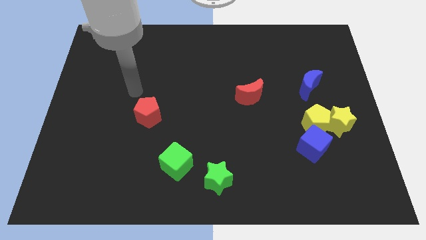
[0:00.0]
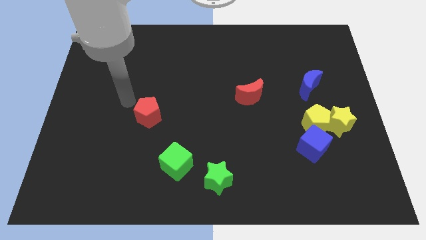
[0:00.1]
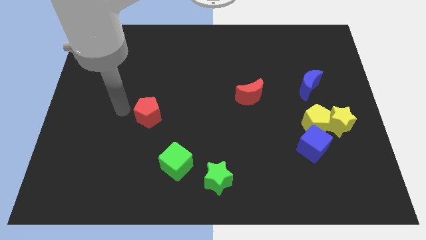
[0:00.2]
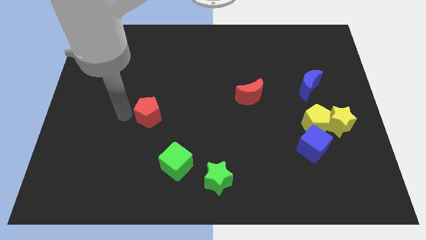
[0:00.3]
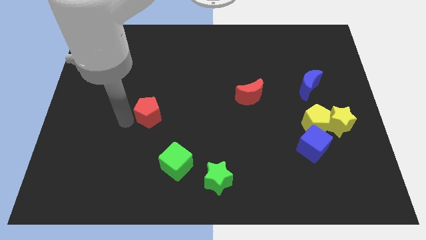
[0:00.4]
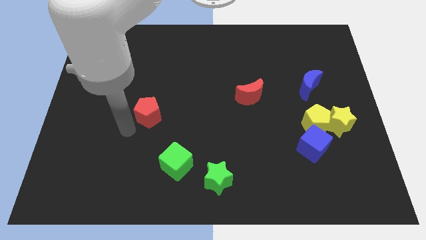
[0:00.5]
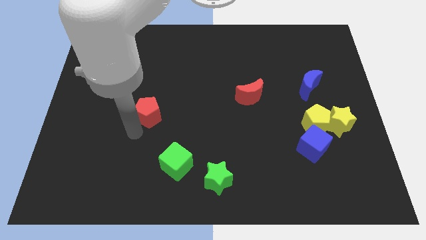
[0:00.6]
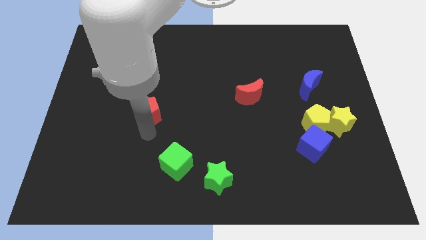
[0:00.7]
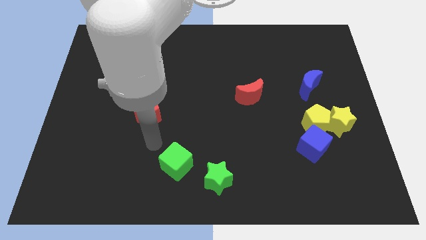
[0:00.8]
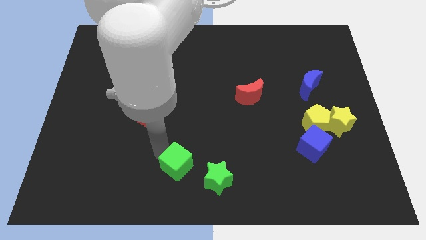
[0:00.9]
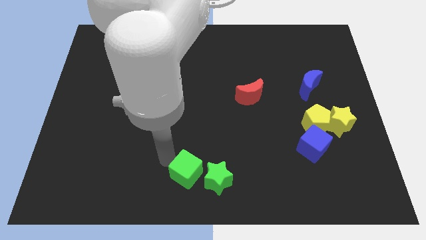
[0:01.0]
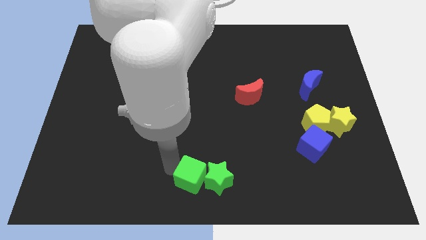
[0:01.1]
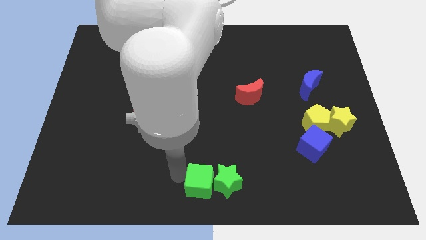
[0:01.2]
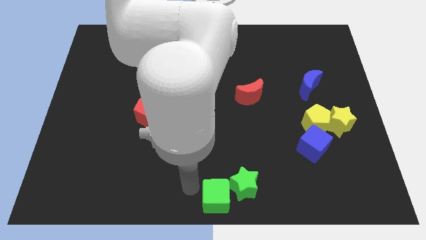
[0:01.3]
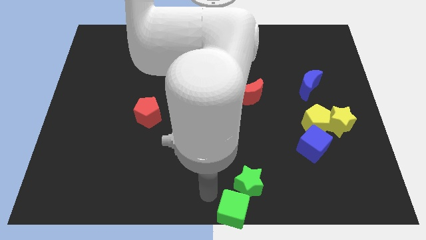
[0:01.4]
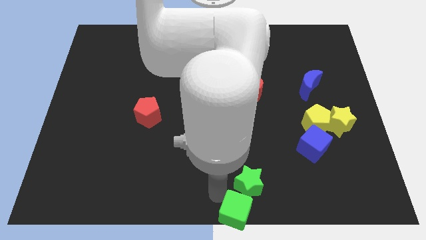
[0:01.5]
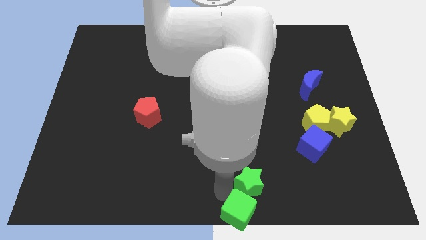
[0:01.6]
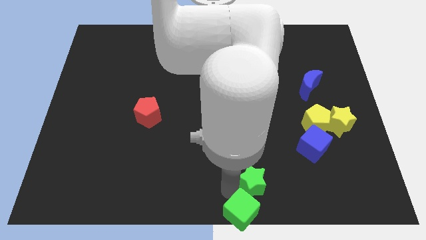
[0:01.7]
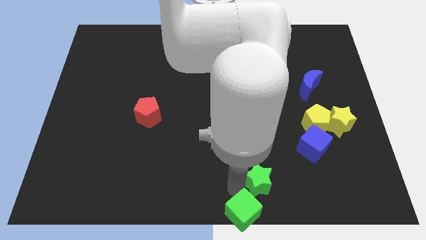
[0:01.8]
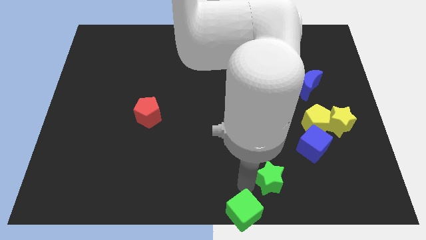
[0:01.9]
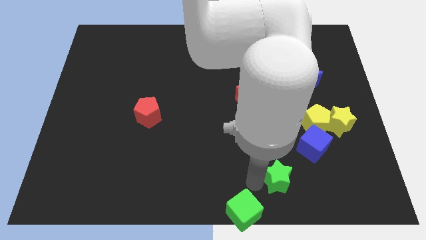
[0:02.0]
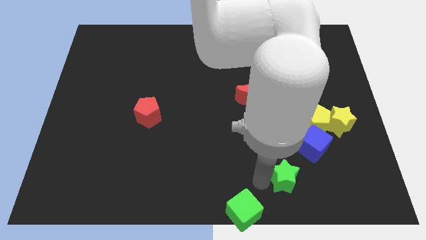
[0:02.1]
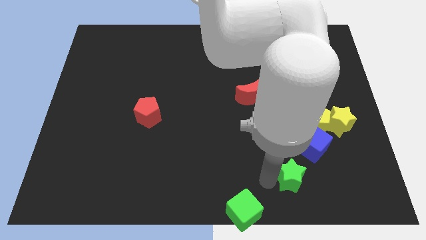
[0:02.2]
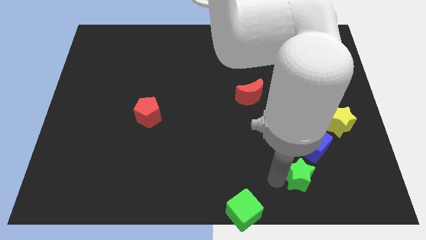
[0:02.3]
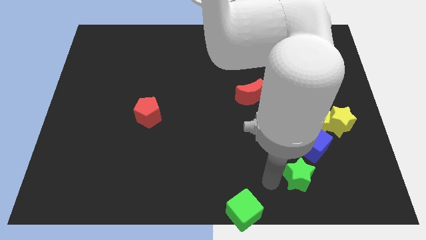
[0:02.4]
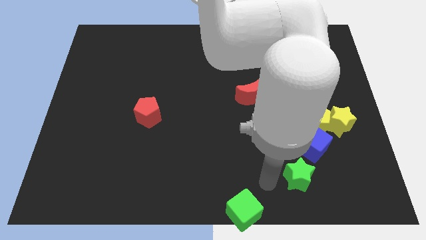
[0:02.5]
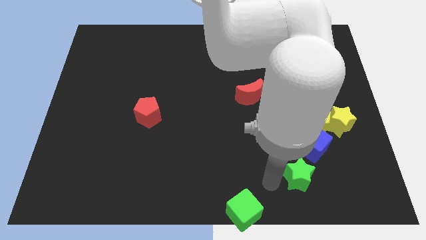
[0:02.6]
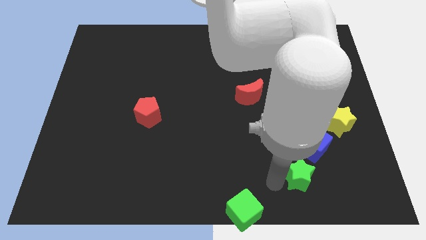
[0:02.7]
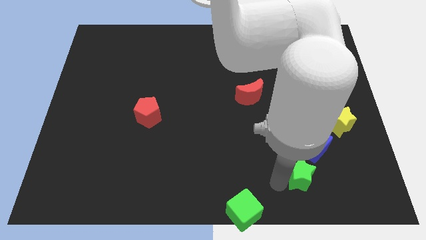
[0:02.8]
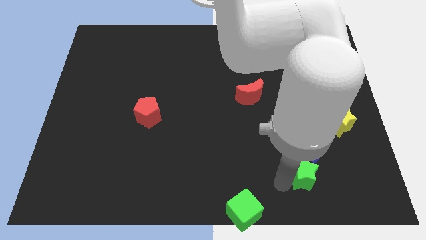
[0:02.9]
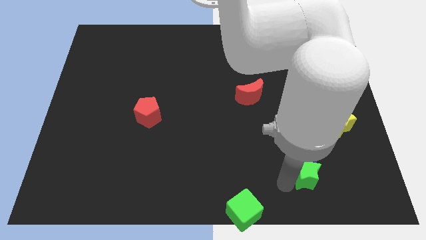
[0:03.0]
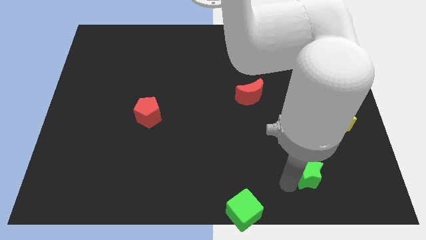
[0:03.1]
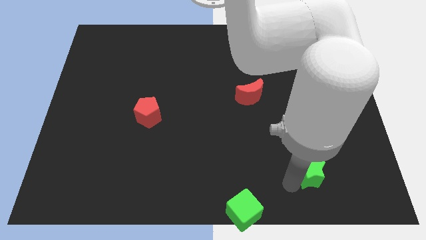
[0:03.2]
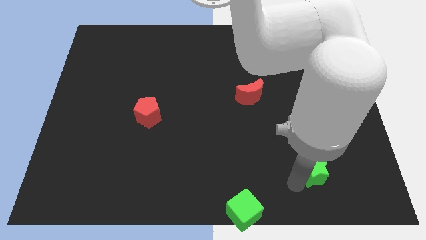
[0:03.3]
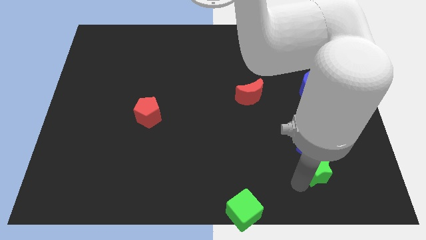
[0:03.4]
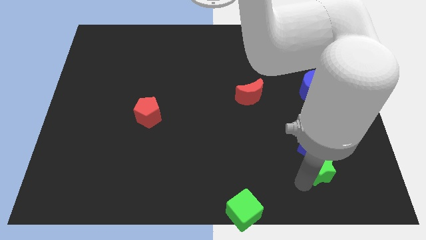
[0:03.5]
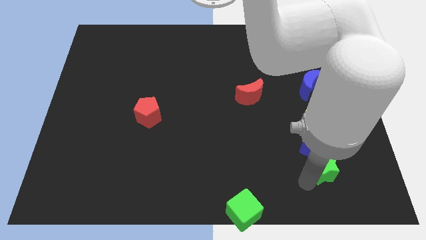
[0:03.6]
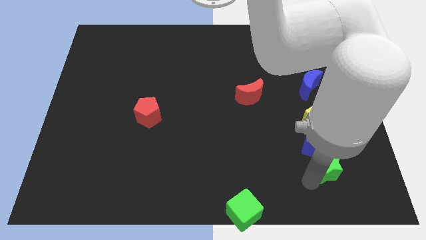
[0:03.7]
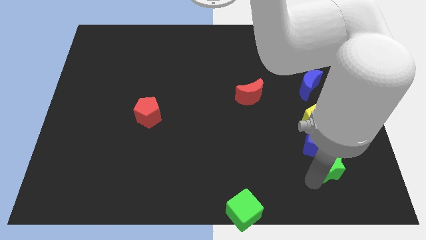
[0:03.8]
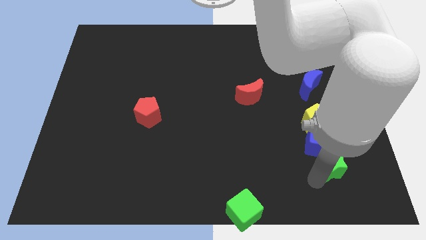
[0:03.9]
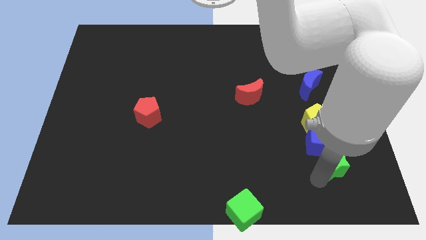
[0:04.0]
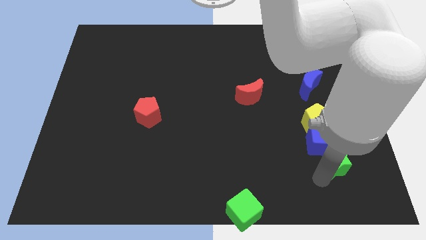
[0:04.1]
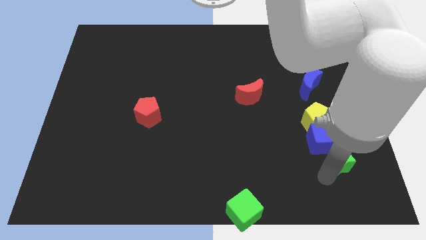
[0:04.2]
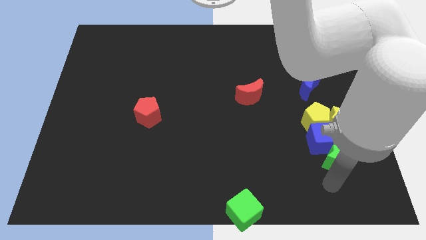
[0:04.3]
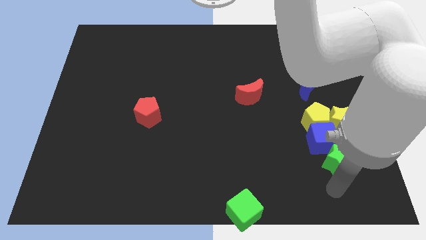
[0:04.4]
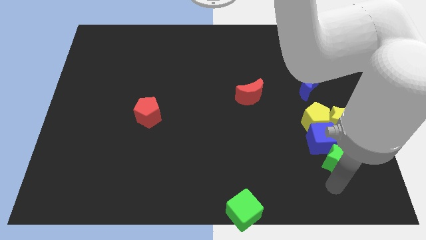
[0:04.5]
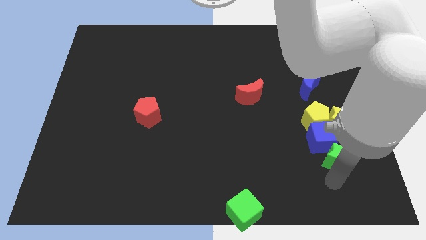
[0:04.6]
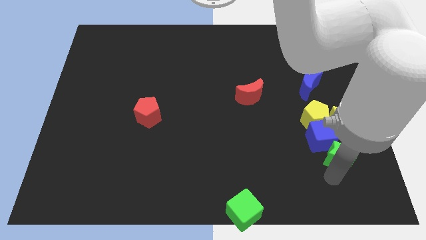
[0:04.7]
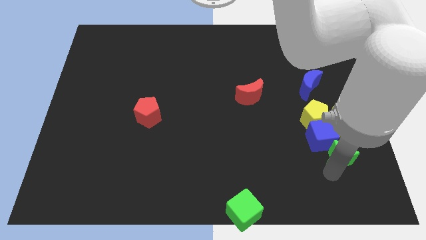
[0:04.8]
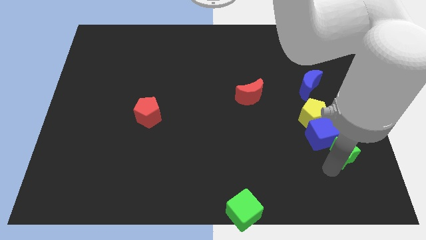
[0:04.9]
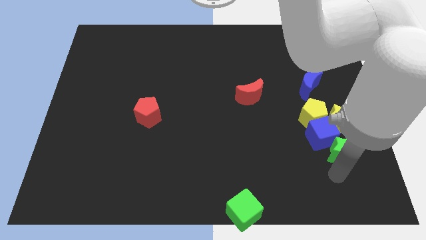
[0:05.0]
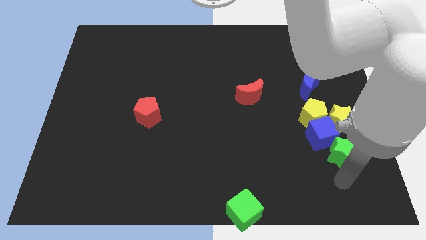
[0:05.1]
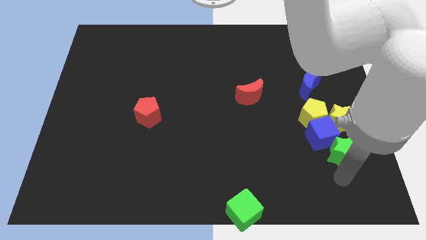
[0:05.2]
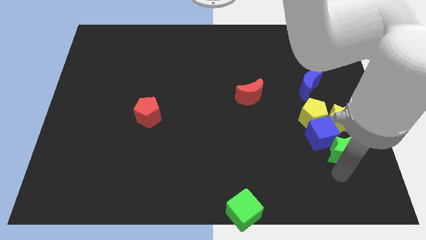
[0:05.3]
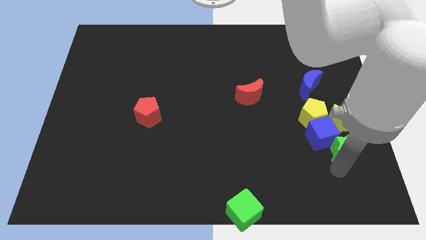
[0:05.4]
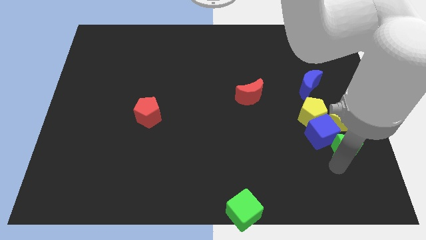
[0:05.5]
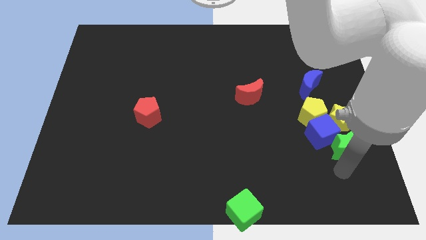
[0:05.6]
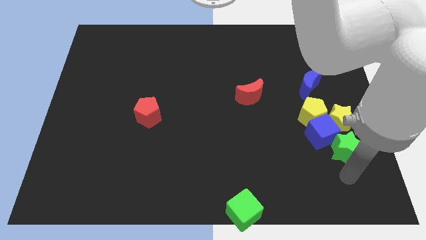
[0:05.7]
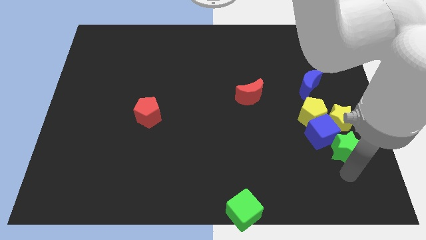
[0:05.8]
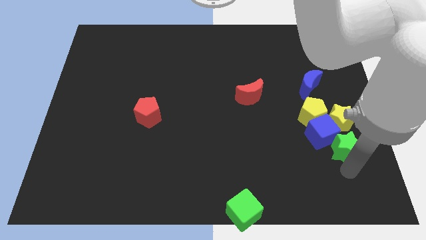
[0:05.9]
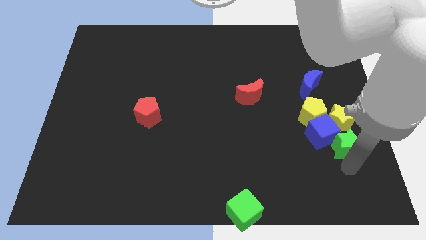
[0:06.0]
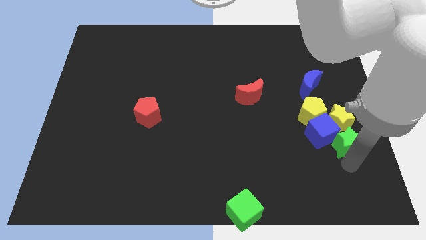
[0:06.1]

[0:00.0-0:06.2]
push the green star to the yellow star
